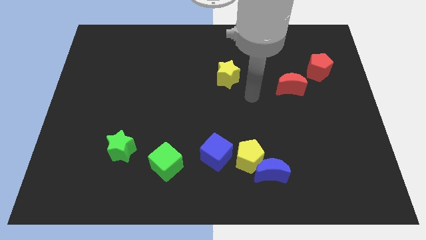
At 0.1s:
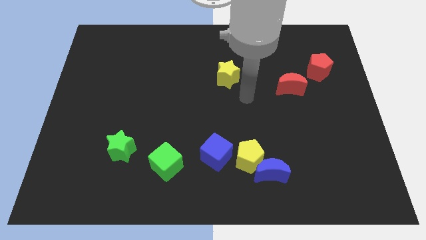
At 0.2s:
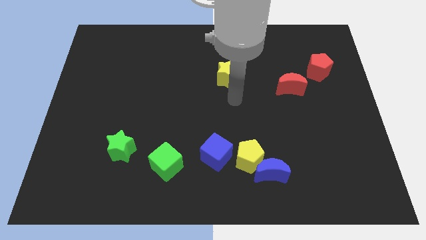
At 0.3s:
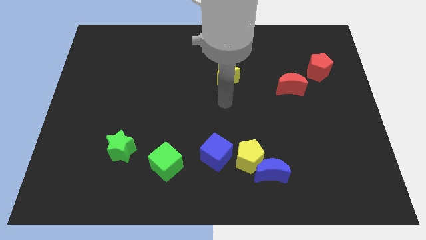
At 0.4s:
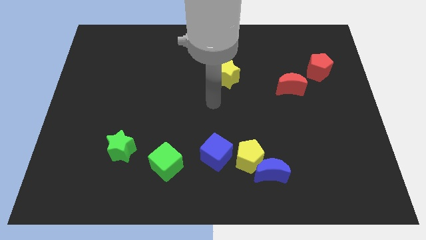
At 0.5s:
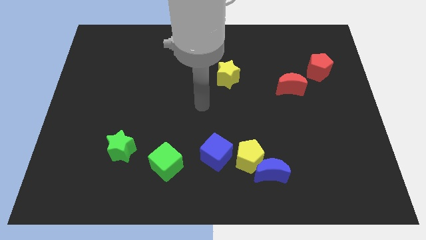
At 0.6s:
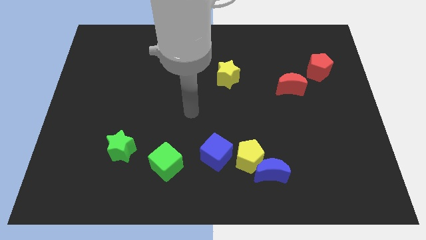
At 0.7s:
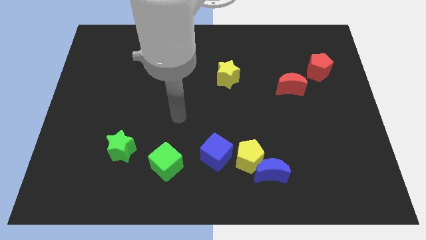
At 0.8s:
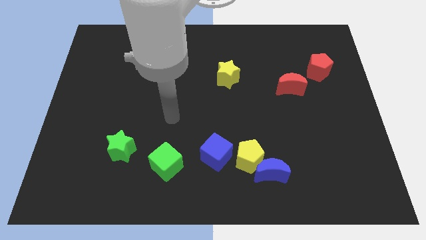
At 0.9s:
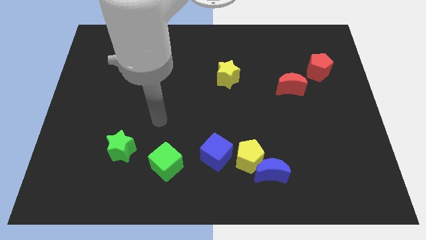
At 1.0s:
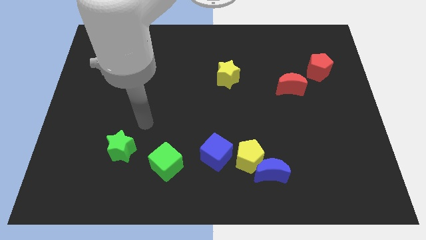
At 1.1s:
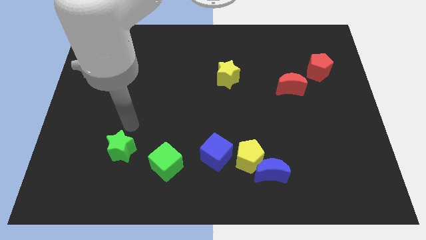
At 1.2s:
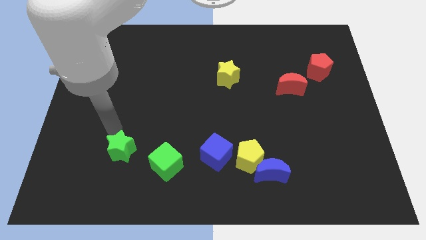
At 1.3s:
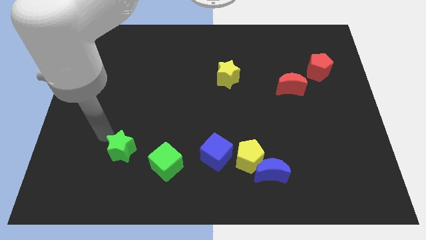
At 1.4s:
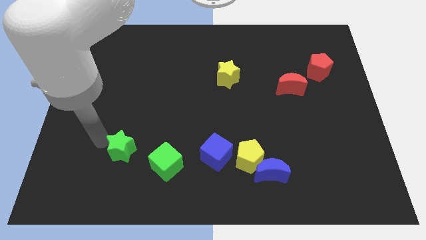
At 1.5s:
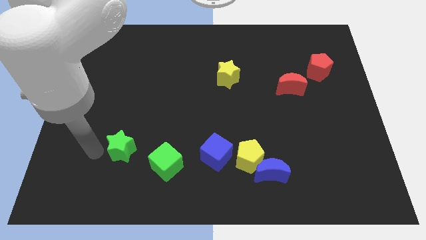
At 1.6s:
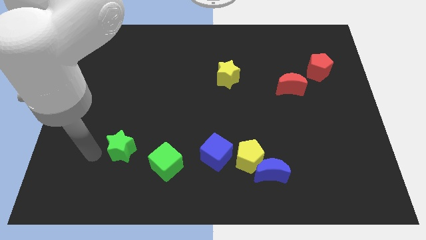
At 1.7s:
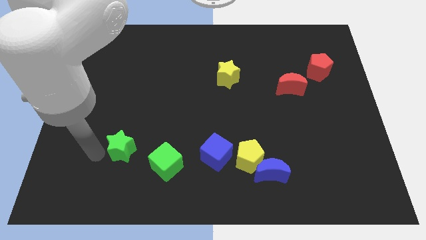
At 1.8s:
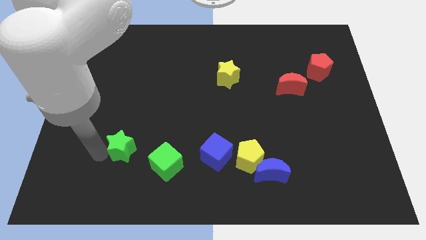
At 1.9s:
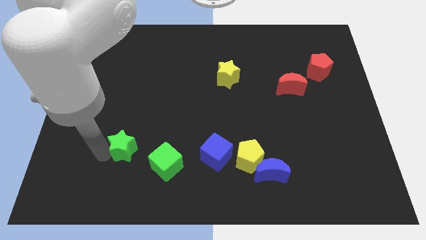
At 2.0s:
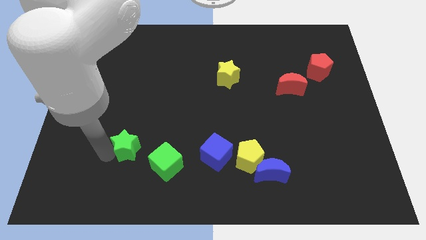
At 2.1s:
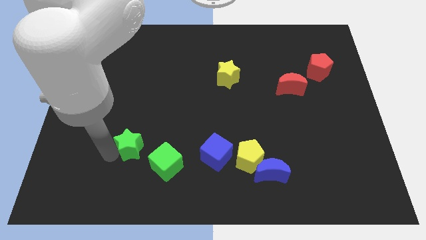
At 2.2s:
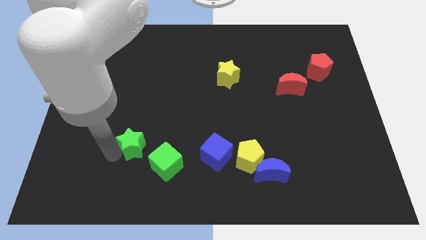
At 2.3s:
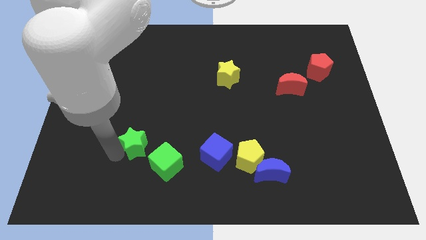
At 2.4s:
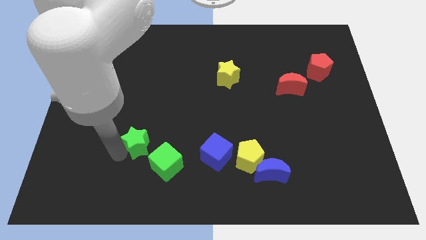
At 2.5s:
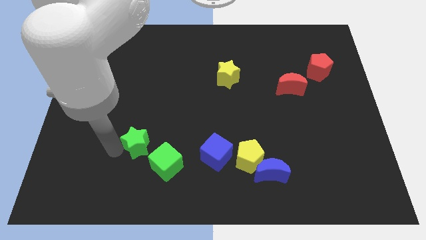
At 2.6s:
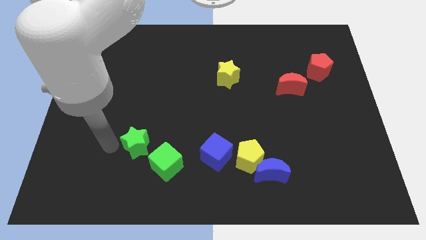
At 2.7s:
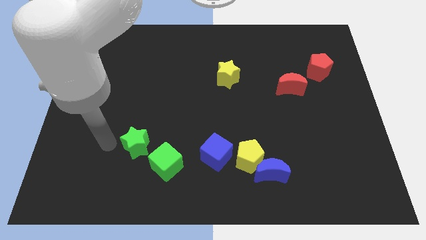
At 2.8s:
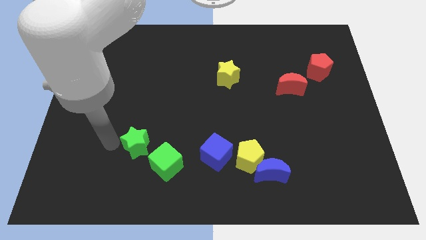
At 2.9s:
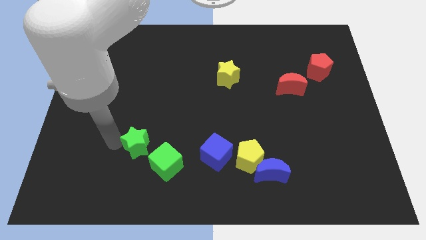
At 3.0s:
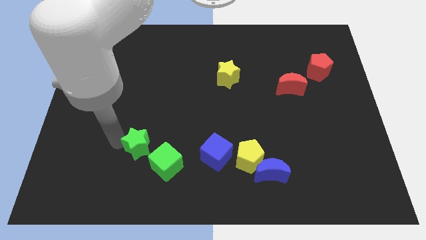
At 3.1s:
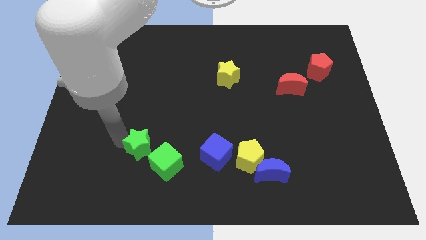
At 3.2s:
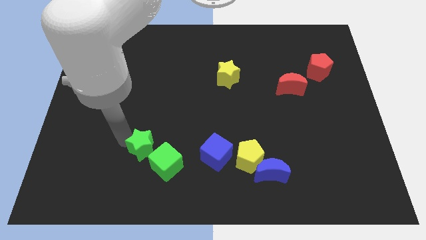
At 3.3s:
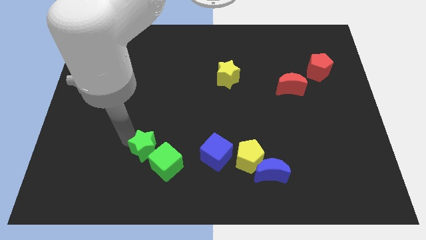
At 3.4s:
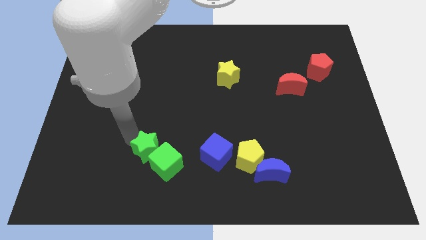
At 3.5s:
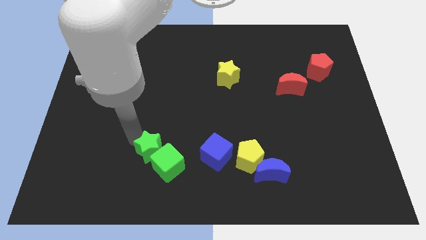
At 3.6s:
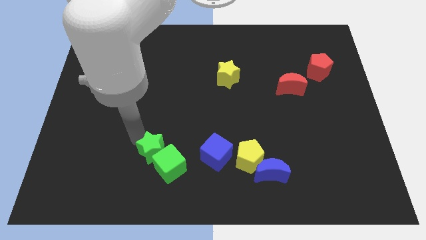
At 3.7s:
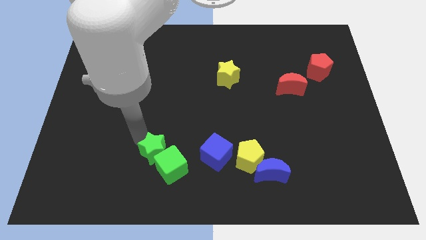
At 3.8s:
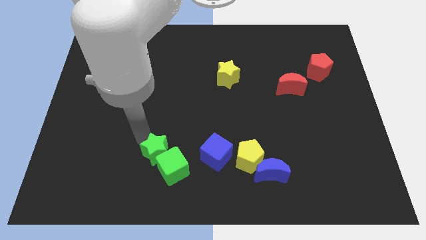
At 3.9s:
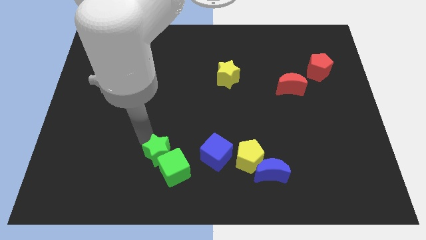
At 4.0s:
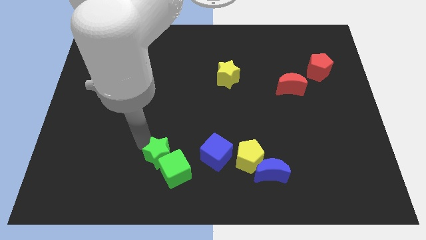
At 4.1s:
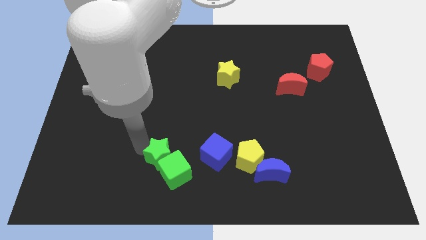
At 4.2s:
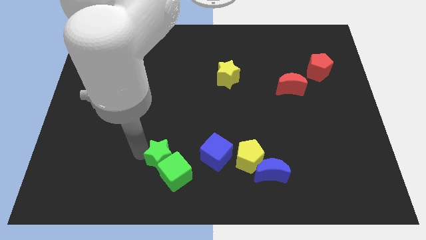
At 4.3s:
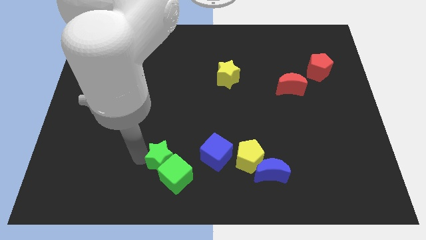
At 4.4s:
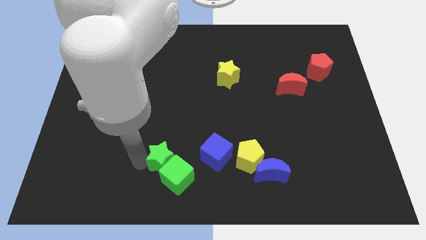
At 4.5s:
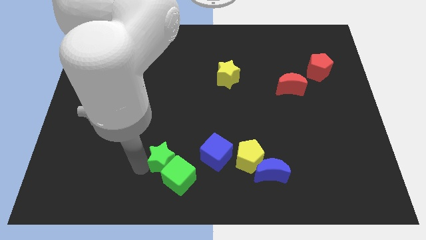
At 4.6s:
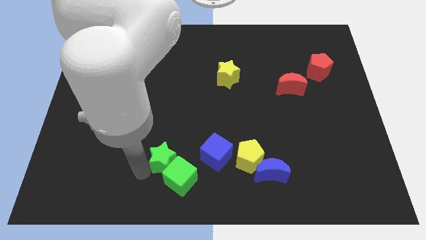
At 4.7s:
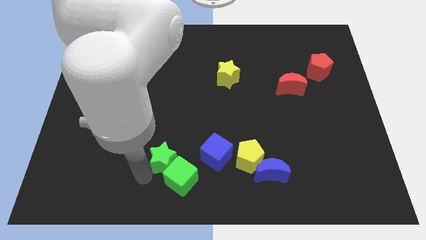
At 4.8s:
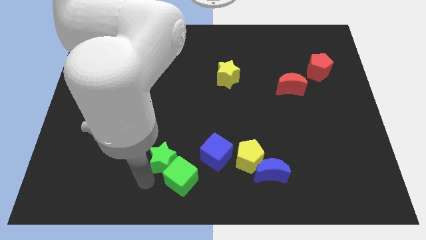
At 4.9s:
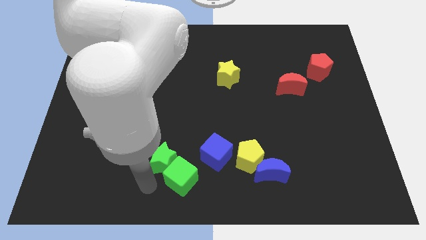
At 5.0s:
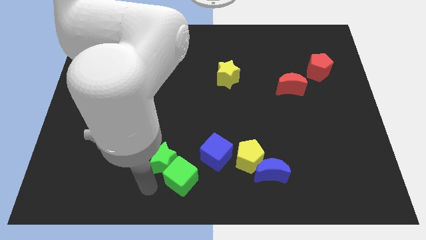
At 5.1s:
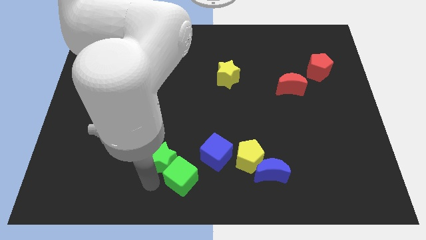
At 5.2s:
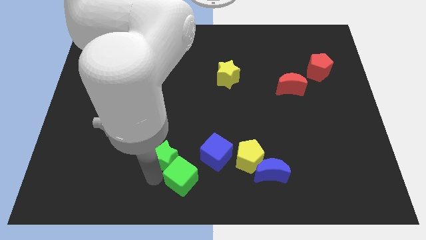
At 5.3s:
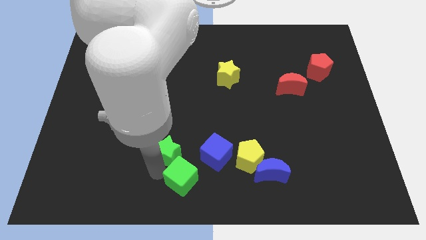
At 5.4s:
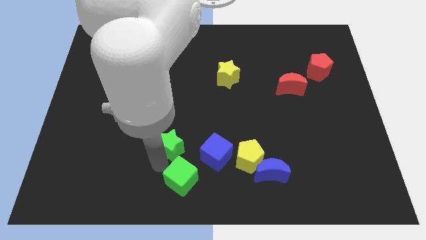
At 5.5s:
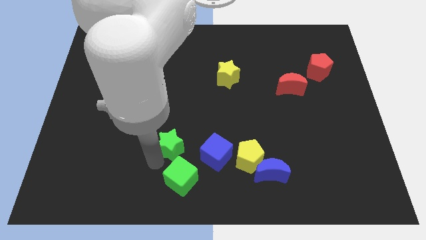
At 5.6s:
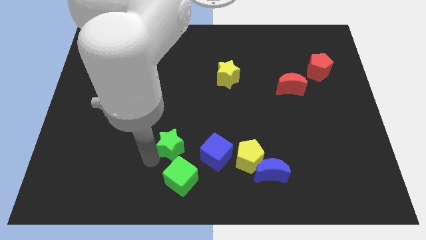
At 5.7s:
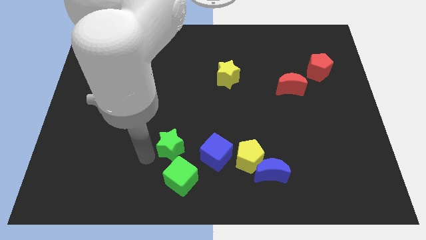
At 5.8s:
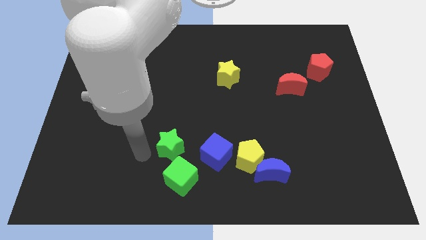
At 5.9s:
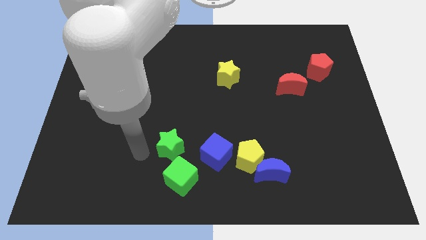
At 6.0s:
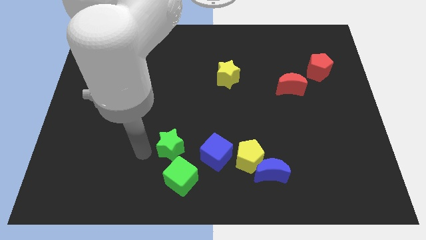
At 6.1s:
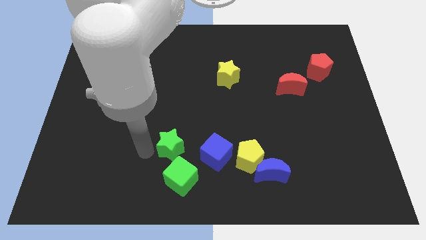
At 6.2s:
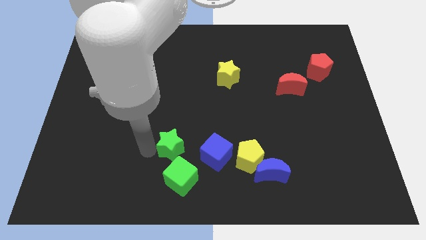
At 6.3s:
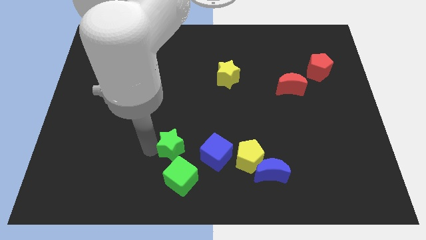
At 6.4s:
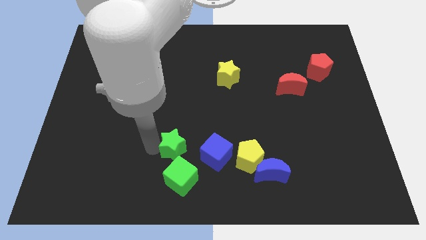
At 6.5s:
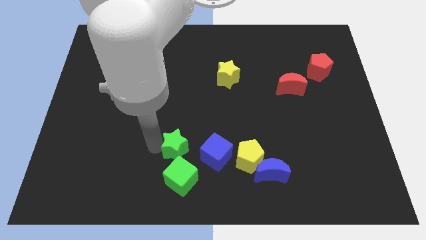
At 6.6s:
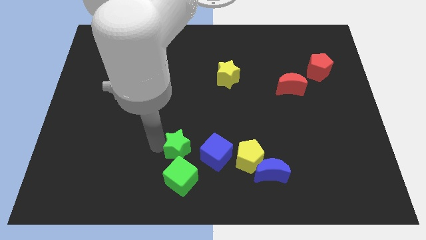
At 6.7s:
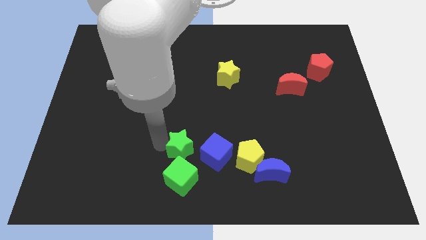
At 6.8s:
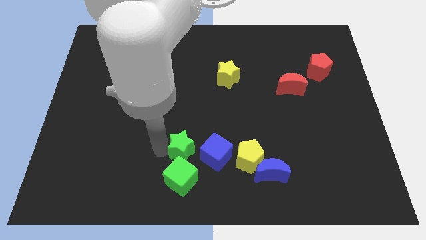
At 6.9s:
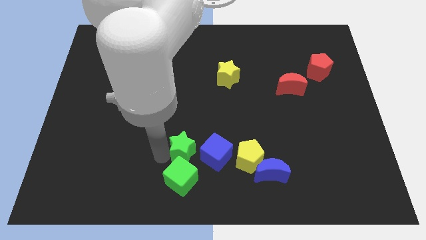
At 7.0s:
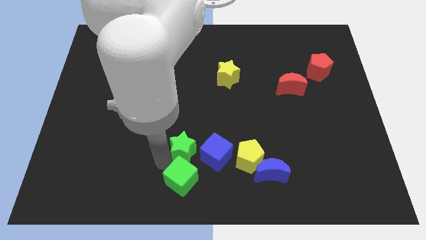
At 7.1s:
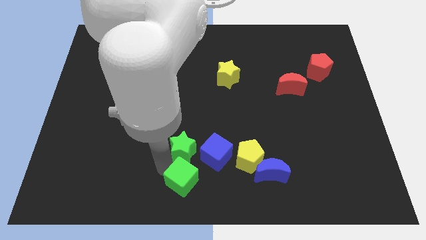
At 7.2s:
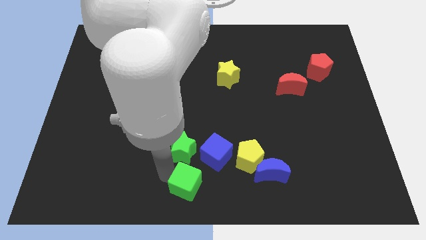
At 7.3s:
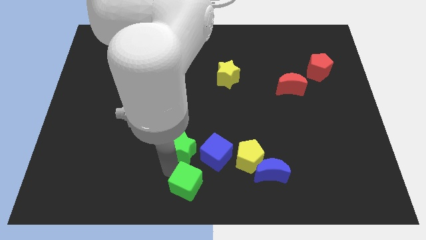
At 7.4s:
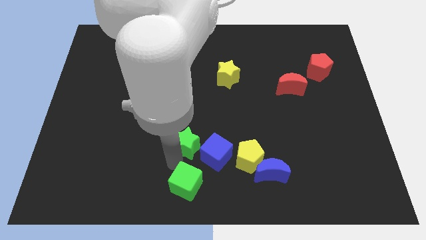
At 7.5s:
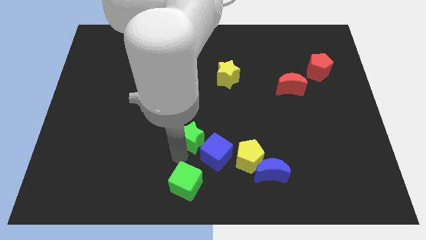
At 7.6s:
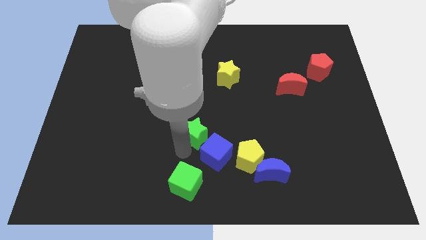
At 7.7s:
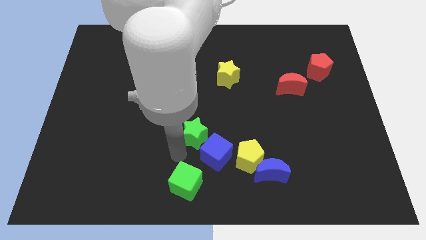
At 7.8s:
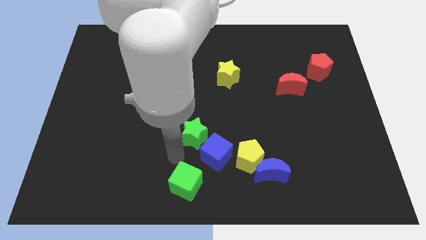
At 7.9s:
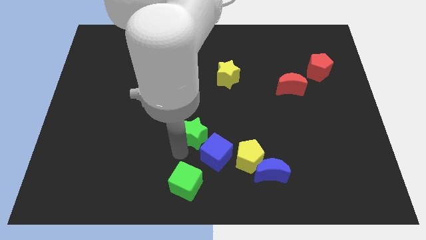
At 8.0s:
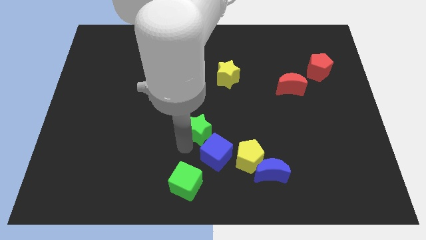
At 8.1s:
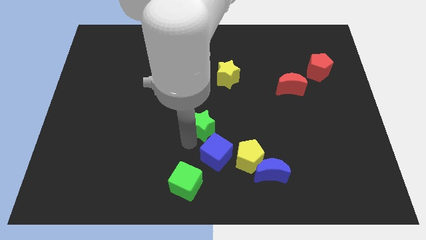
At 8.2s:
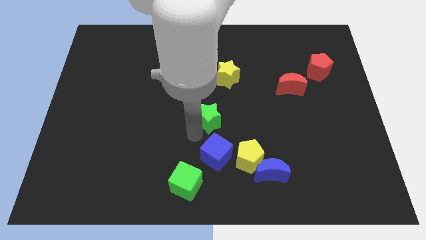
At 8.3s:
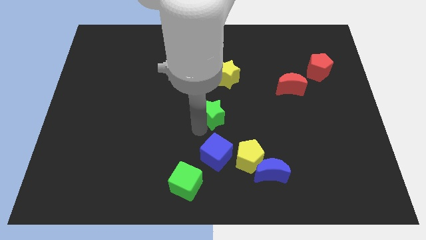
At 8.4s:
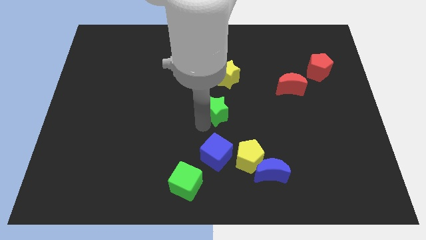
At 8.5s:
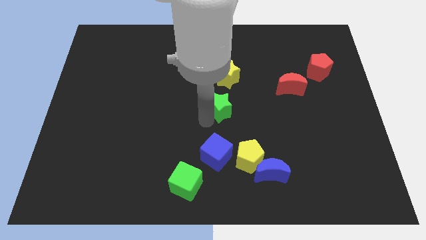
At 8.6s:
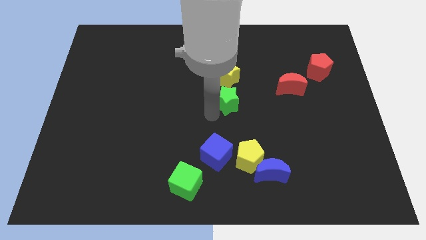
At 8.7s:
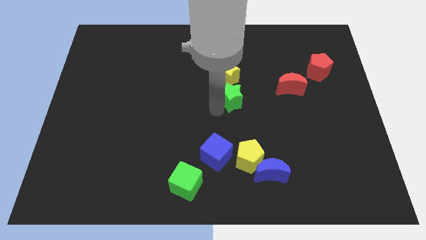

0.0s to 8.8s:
slide the green star diagonally down and to the right of the yellow star
